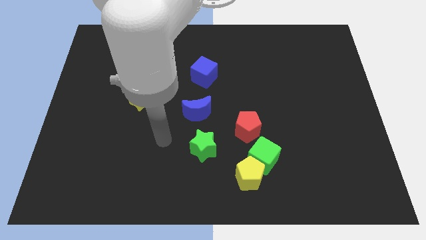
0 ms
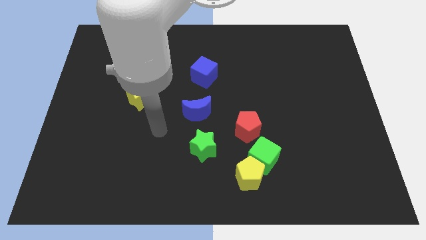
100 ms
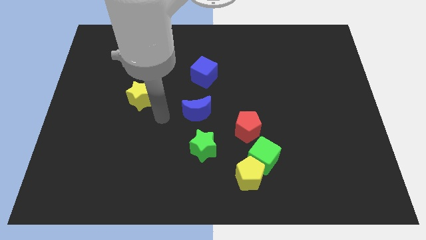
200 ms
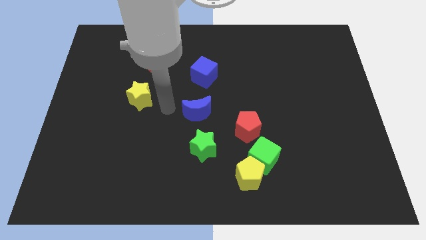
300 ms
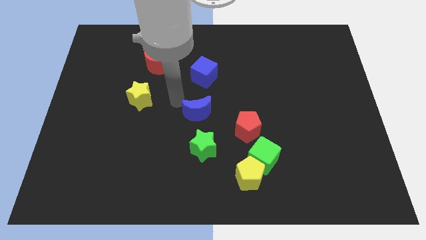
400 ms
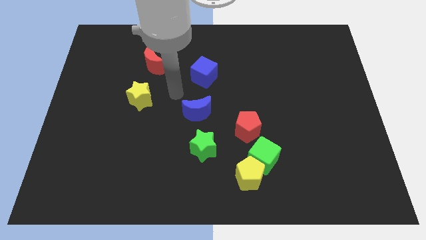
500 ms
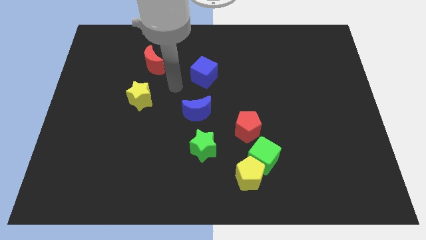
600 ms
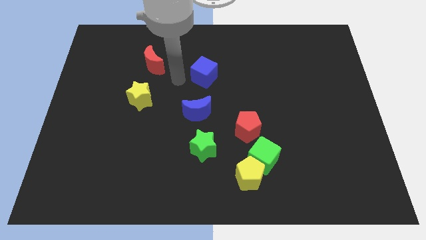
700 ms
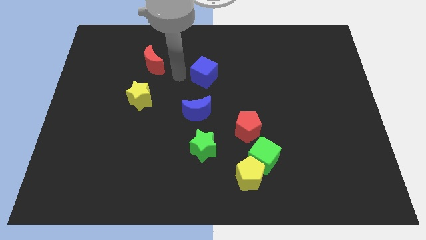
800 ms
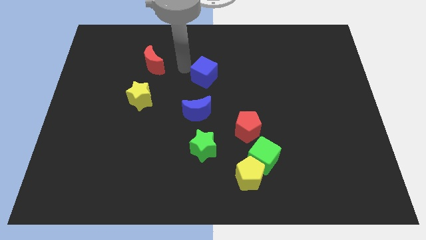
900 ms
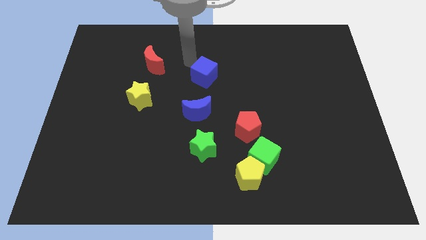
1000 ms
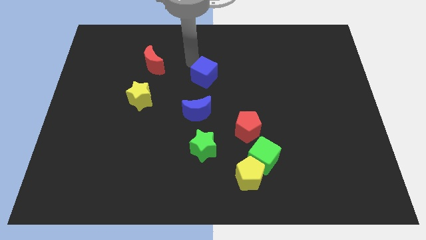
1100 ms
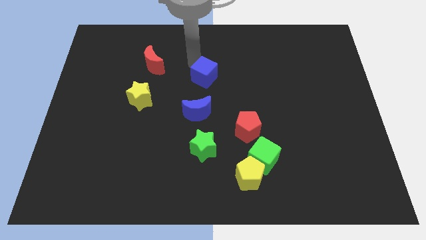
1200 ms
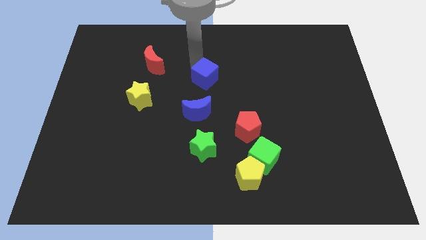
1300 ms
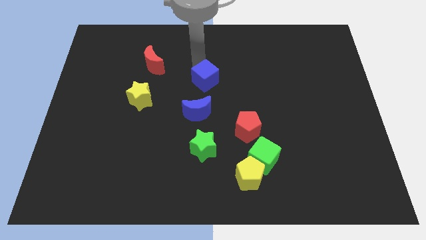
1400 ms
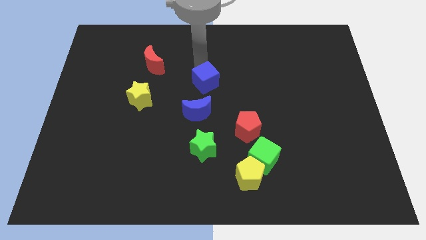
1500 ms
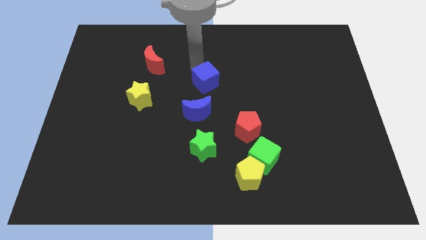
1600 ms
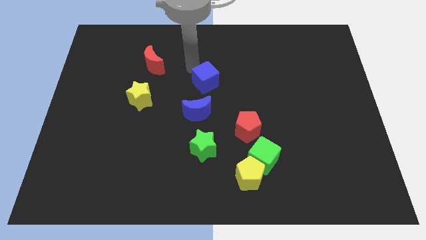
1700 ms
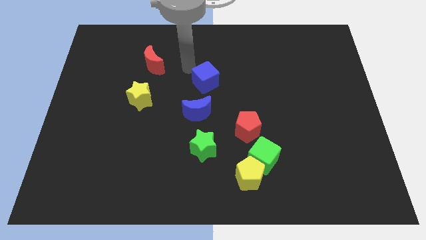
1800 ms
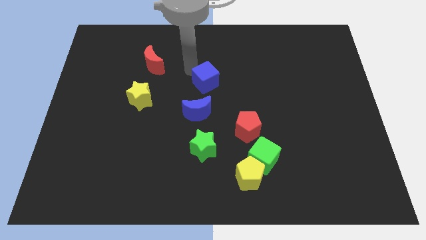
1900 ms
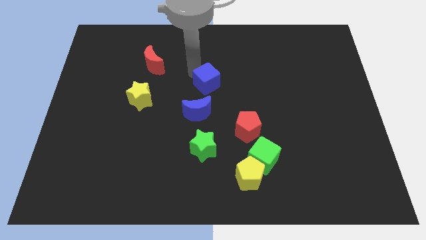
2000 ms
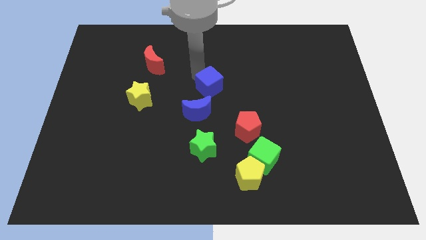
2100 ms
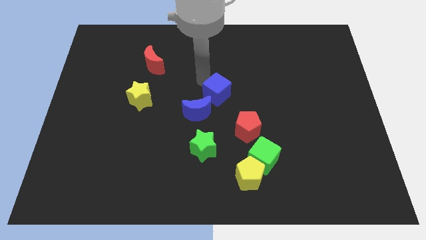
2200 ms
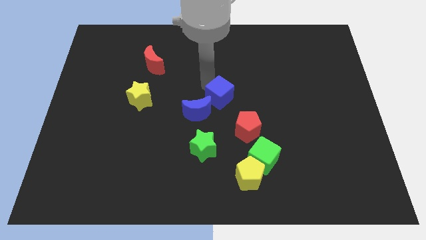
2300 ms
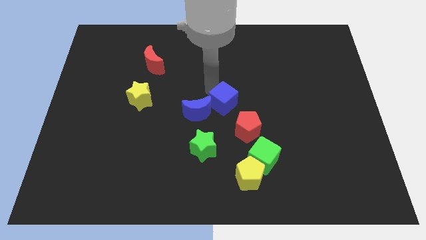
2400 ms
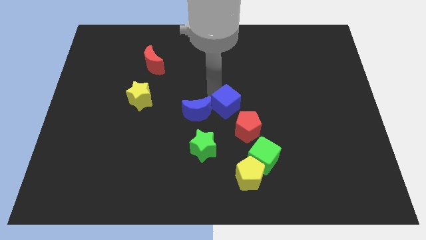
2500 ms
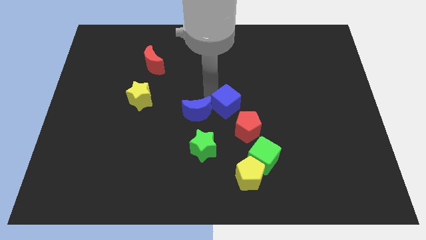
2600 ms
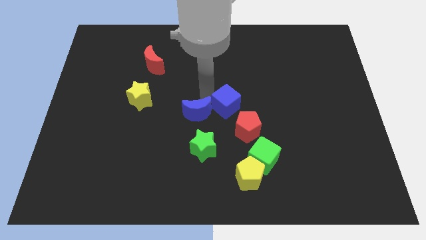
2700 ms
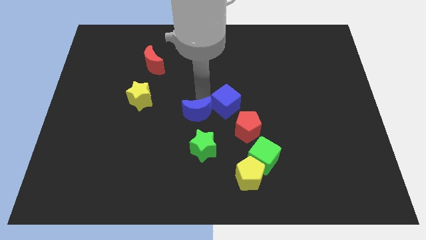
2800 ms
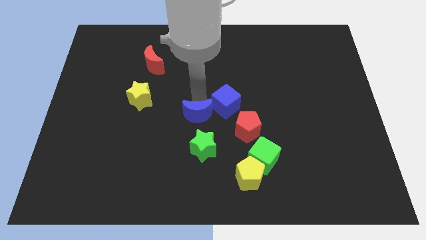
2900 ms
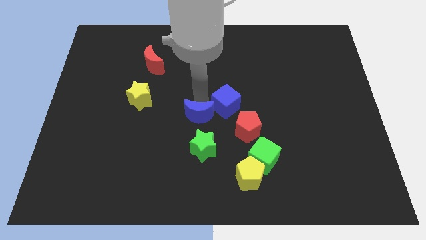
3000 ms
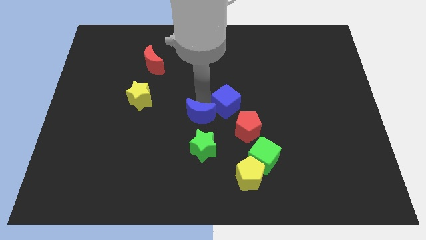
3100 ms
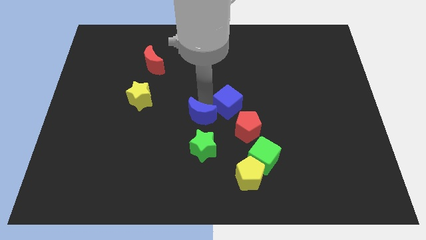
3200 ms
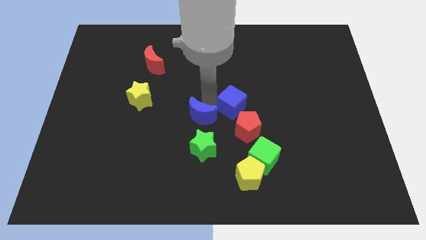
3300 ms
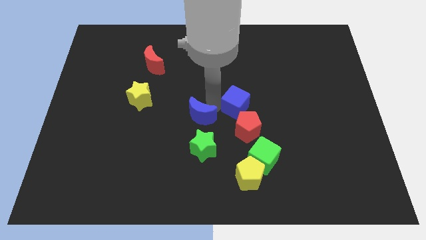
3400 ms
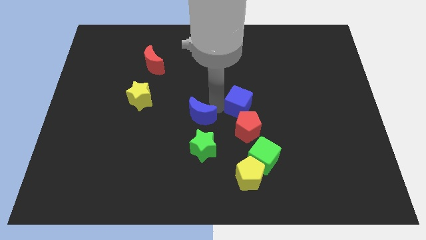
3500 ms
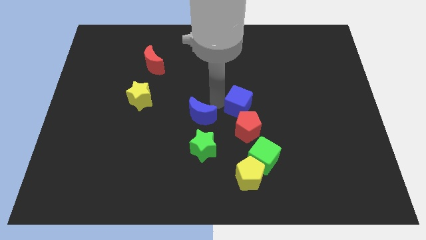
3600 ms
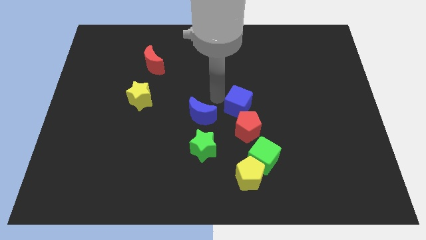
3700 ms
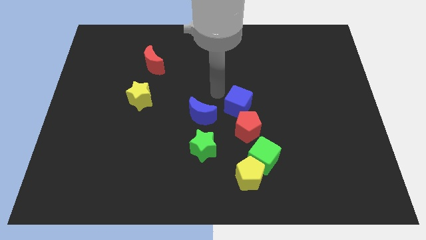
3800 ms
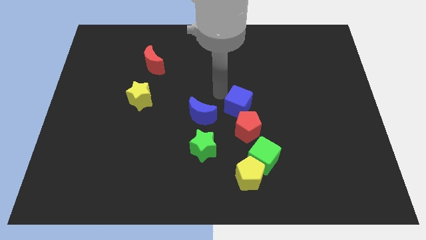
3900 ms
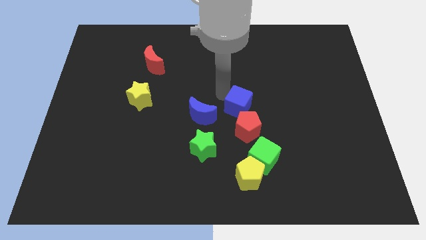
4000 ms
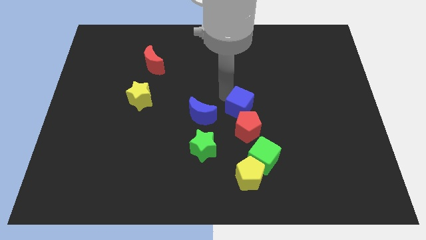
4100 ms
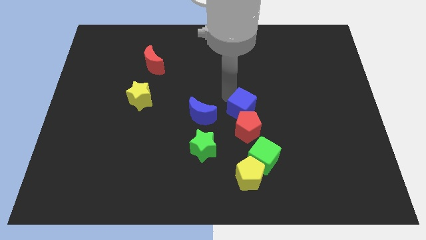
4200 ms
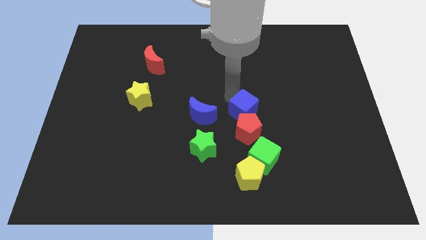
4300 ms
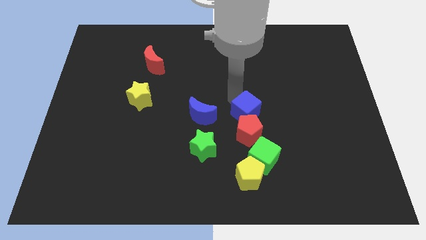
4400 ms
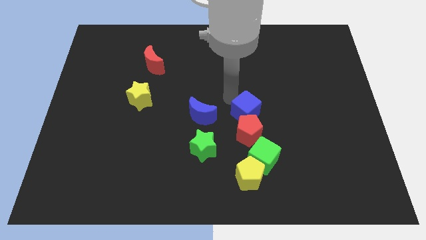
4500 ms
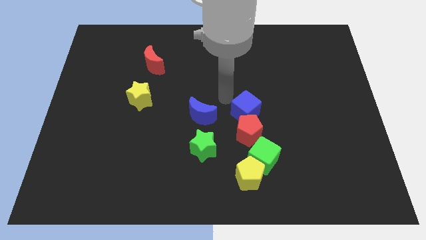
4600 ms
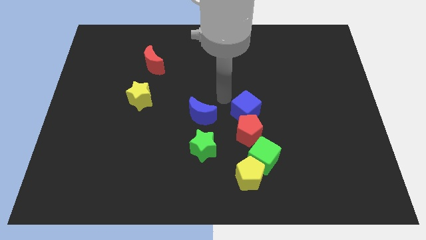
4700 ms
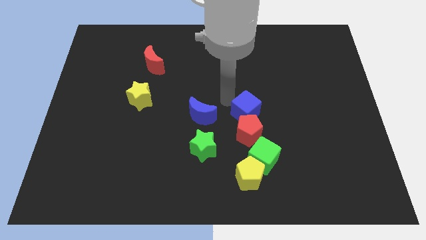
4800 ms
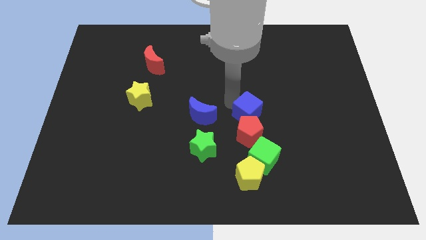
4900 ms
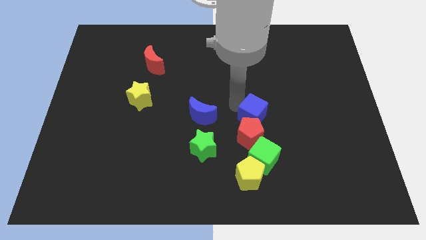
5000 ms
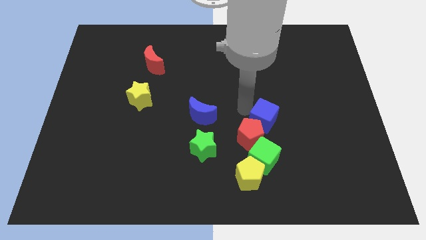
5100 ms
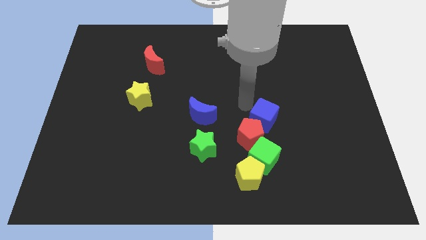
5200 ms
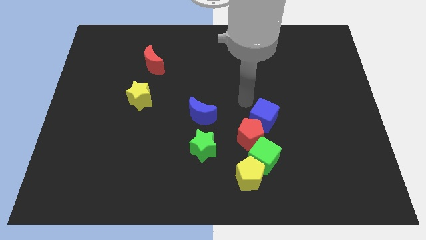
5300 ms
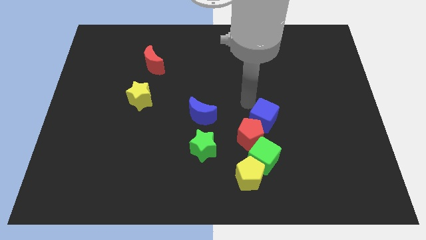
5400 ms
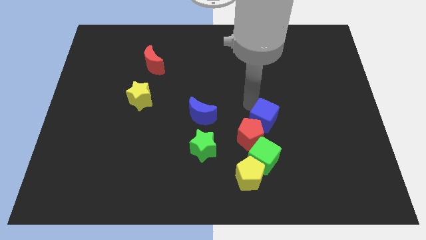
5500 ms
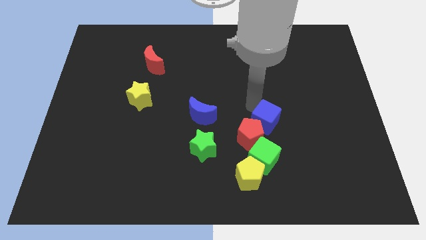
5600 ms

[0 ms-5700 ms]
push the blue cube downwards and right

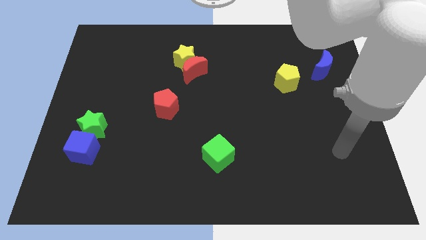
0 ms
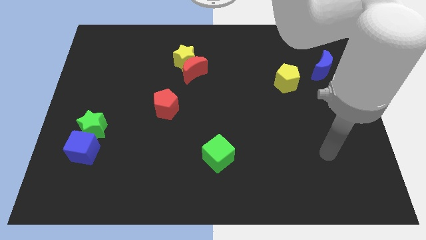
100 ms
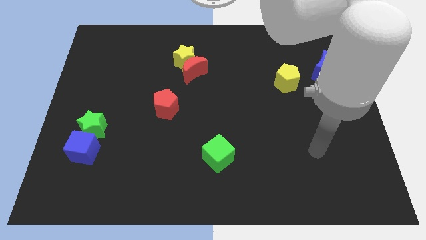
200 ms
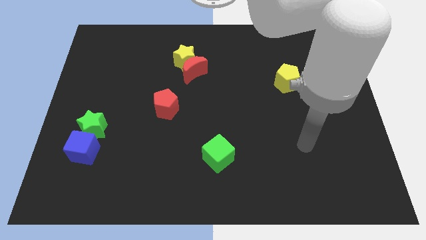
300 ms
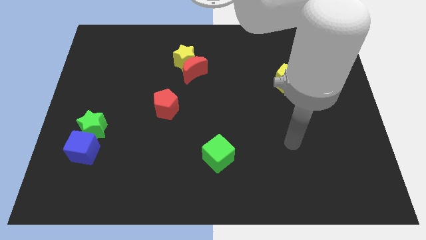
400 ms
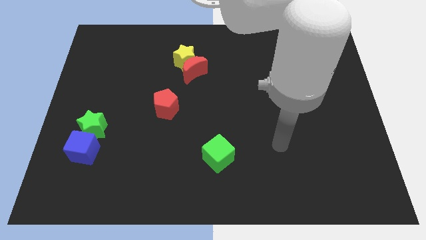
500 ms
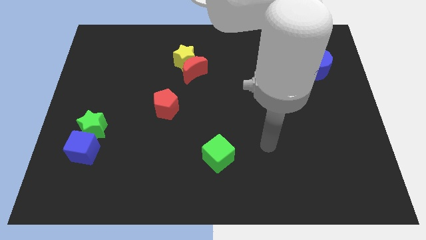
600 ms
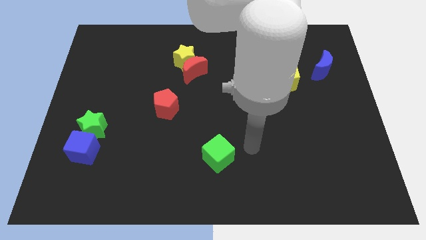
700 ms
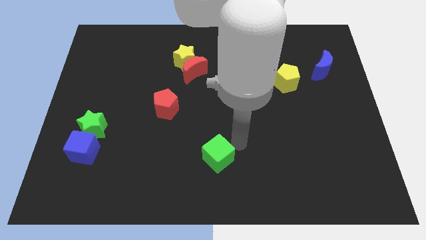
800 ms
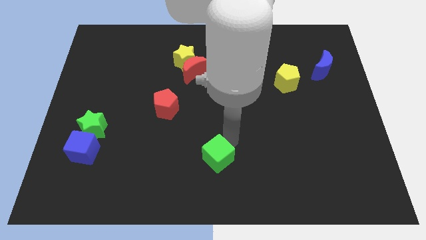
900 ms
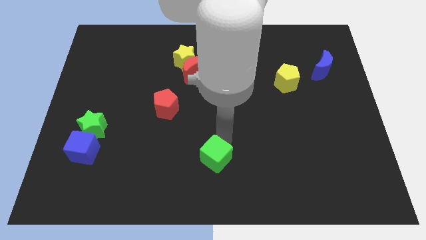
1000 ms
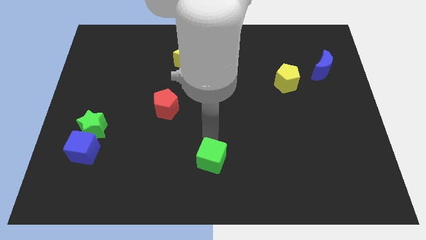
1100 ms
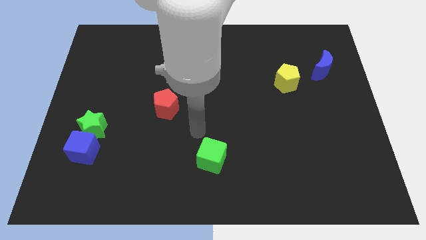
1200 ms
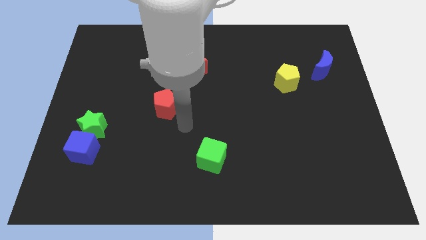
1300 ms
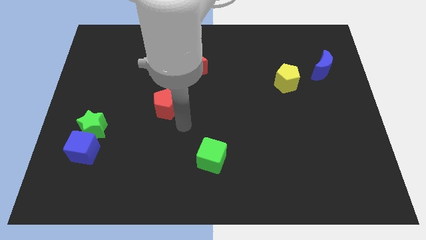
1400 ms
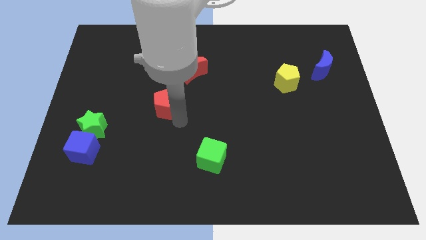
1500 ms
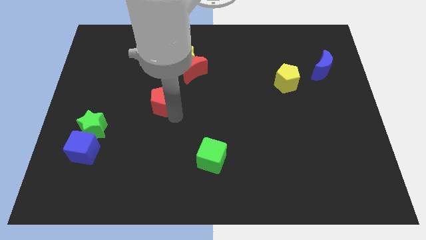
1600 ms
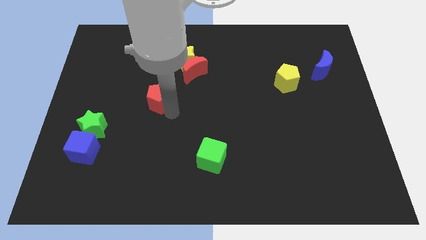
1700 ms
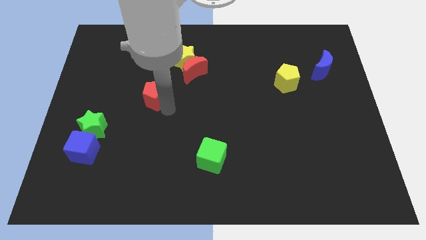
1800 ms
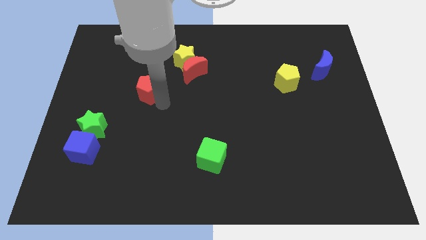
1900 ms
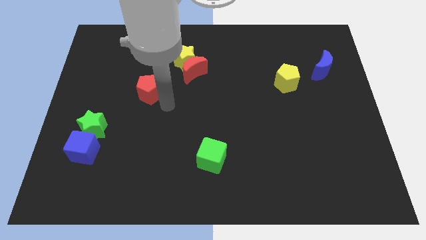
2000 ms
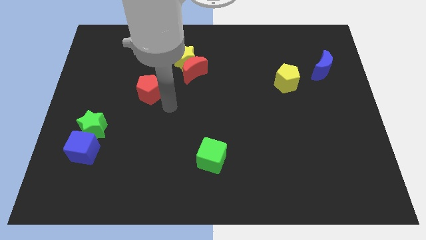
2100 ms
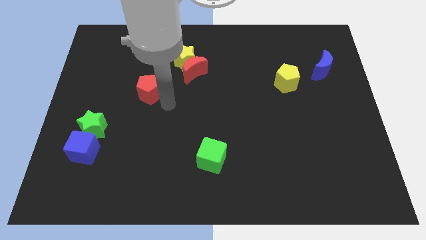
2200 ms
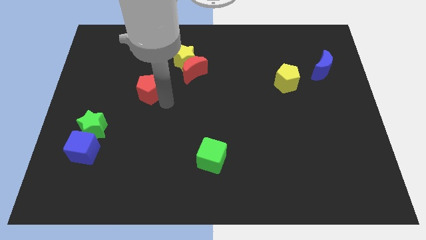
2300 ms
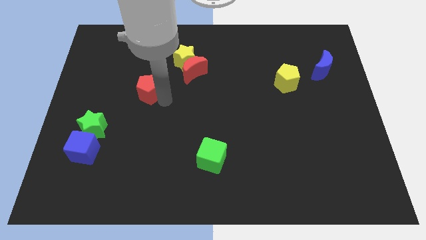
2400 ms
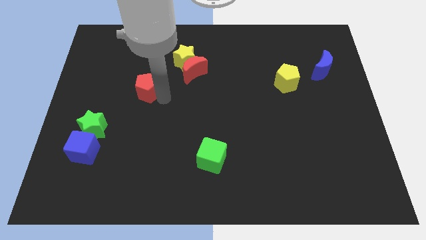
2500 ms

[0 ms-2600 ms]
slide the red pentagon a little bit up and left
